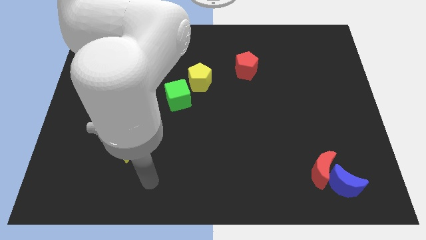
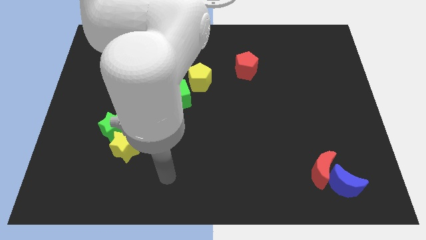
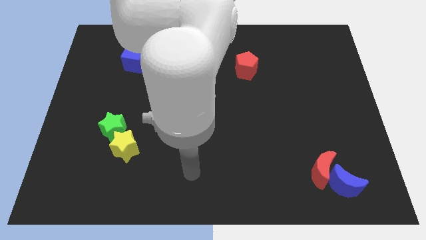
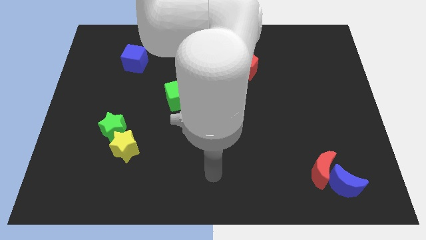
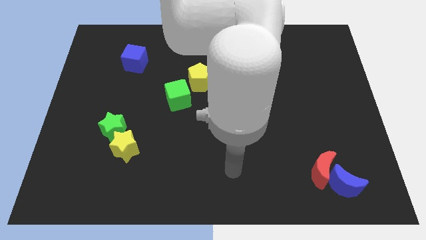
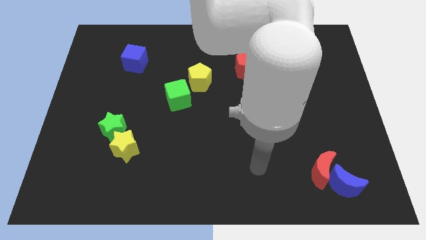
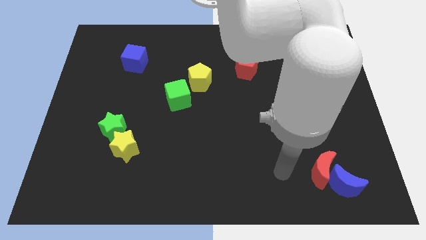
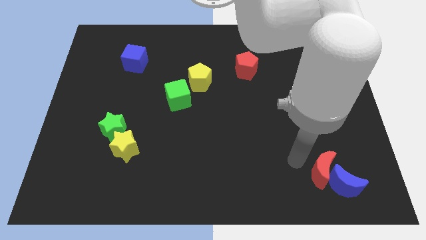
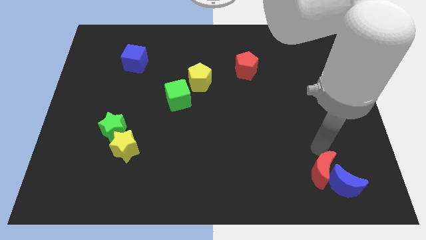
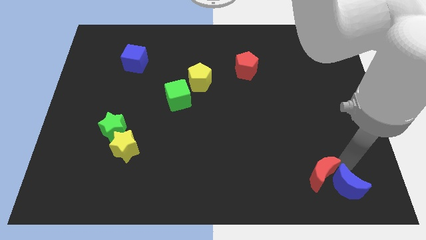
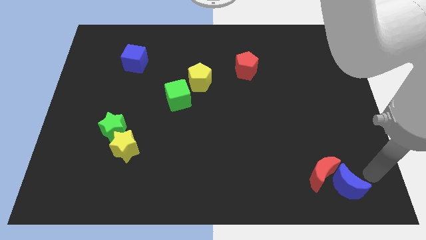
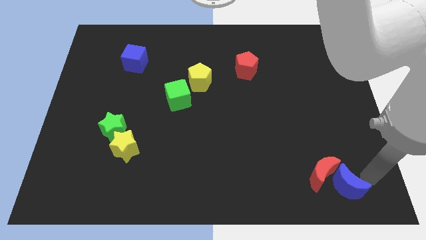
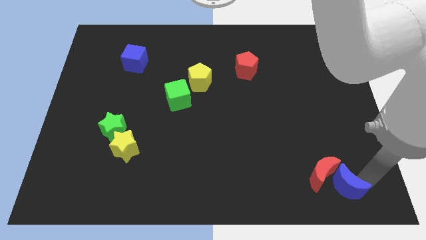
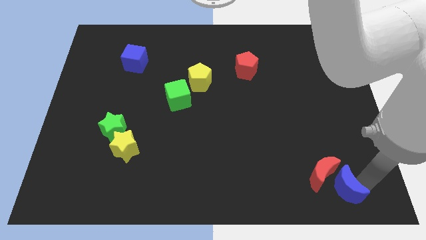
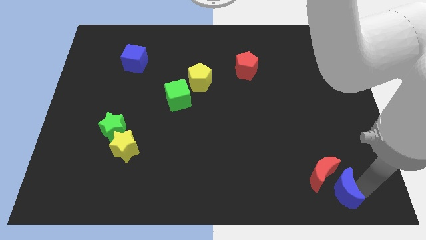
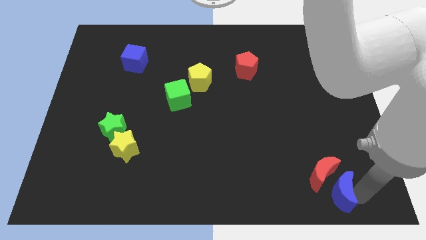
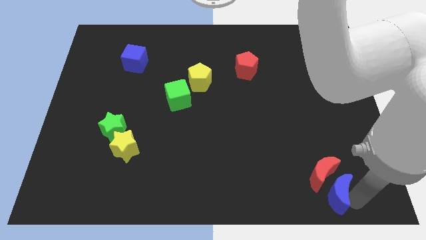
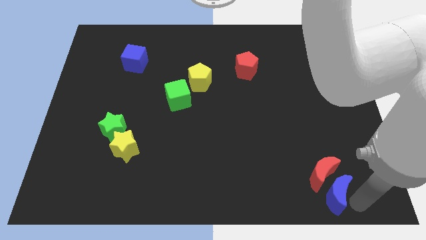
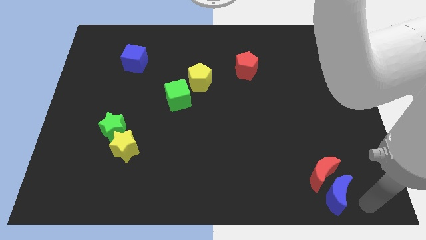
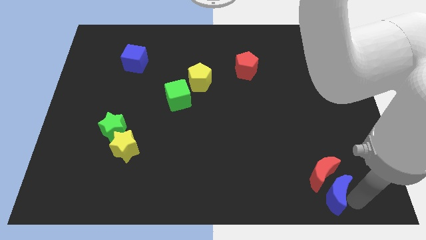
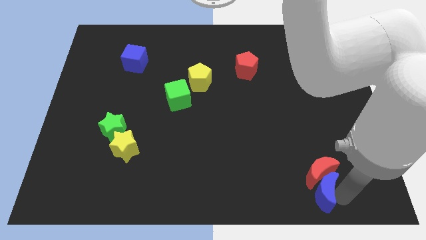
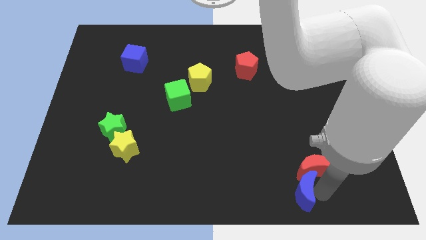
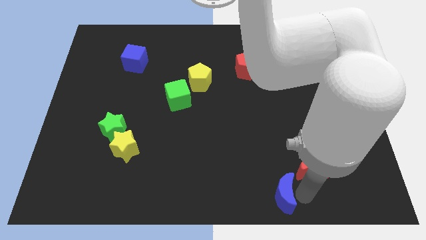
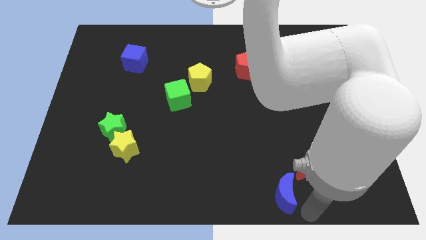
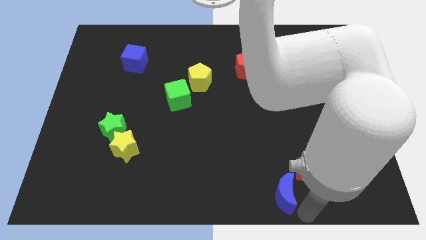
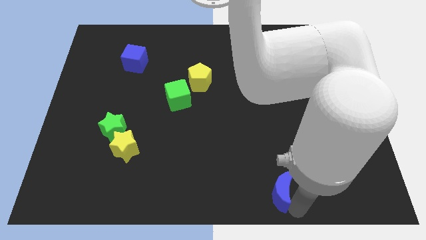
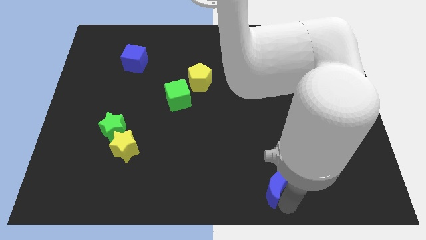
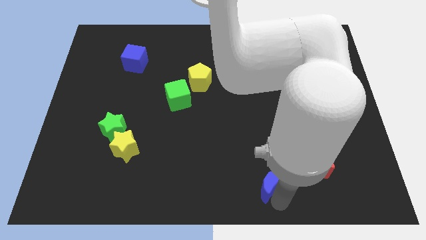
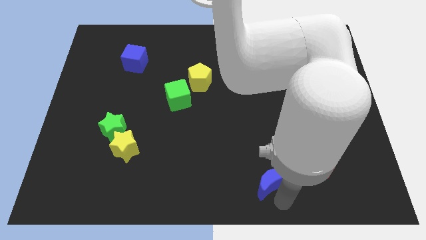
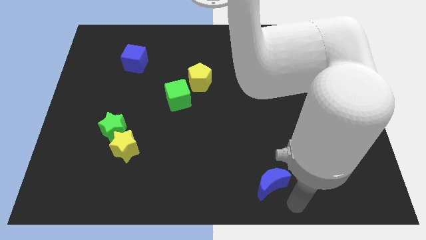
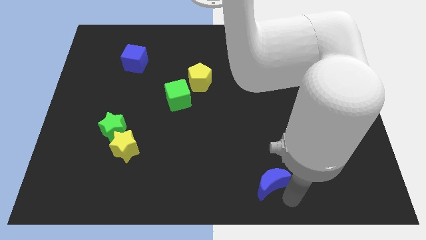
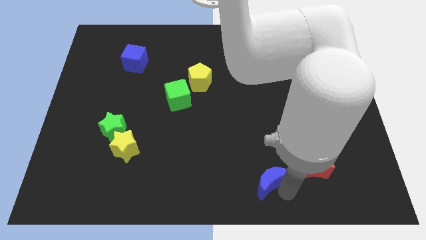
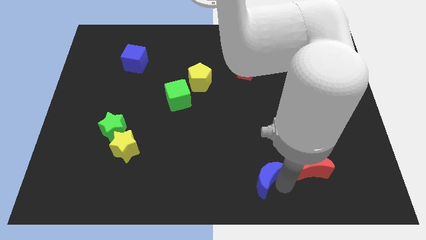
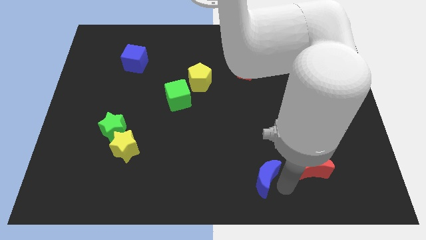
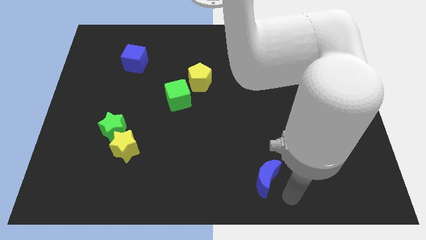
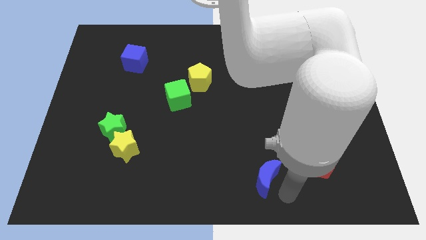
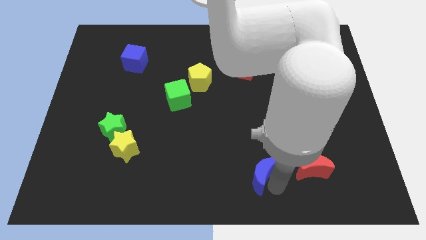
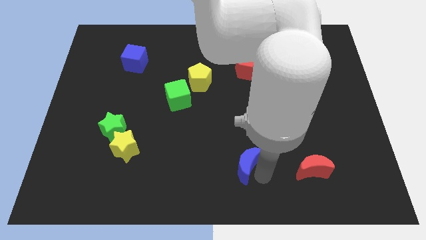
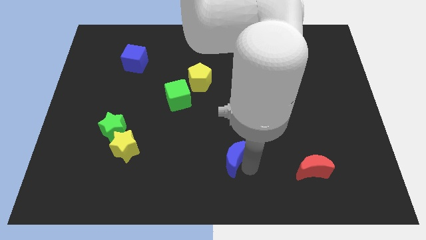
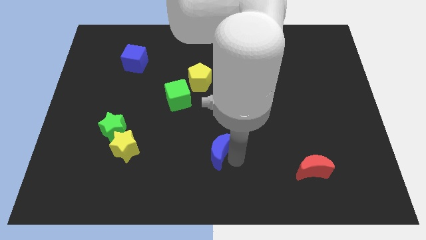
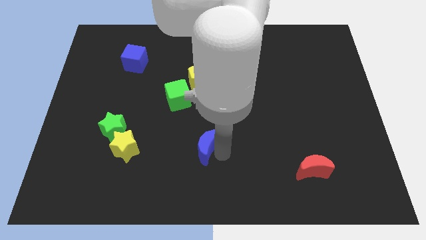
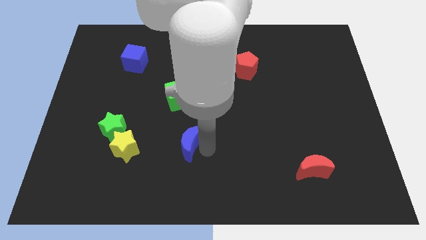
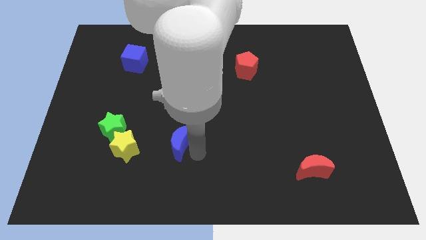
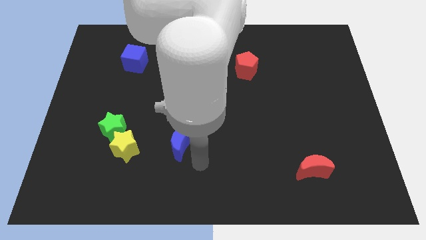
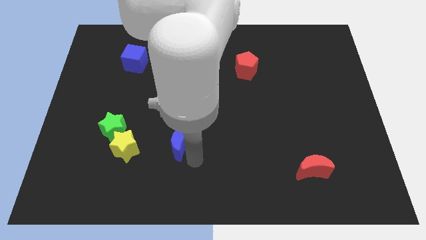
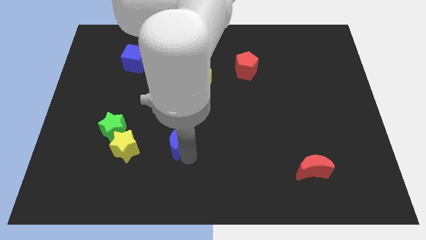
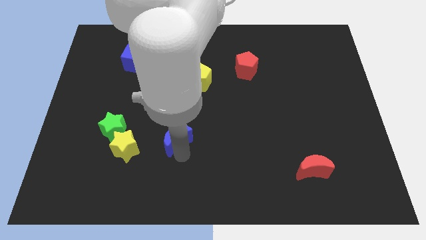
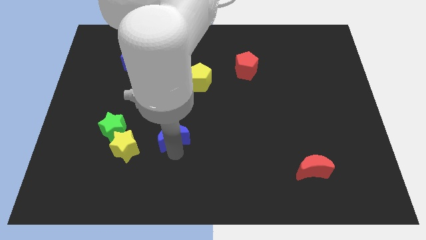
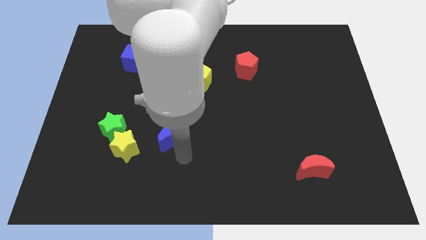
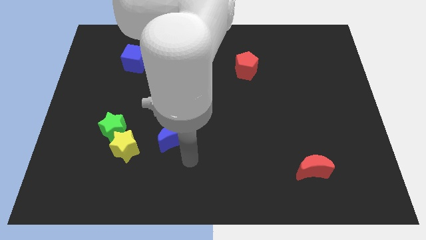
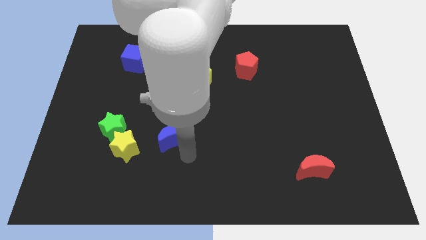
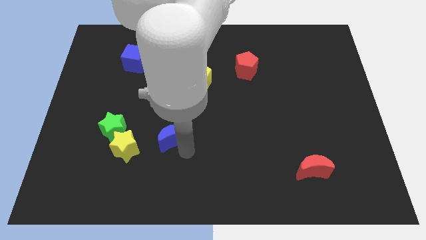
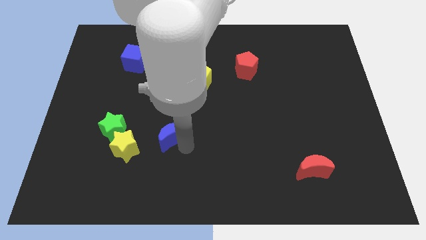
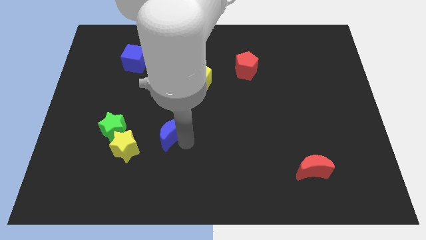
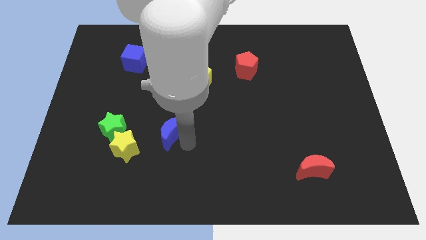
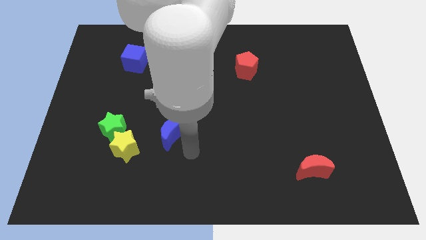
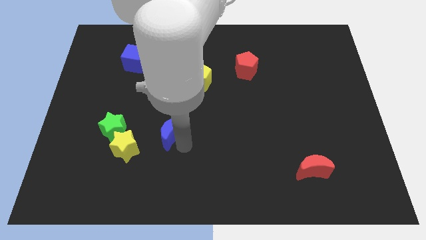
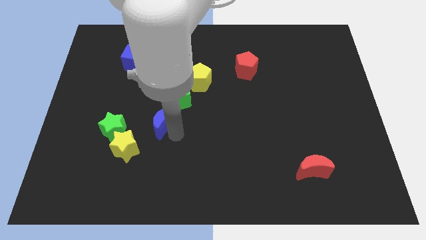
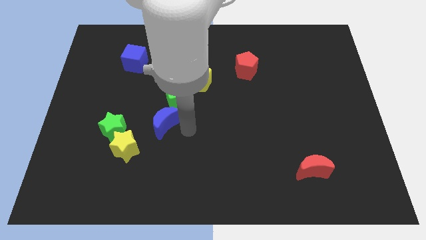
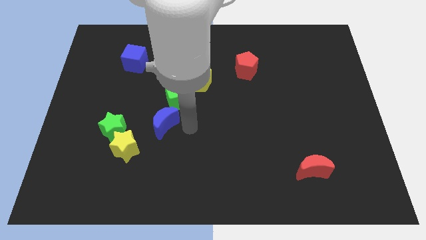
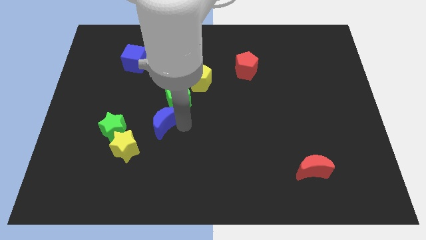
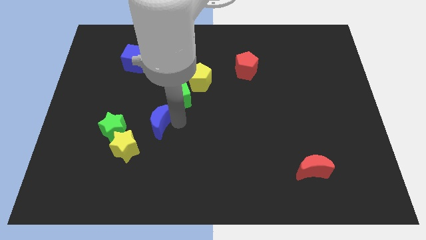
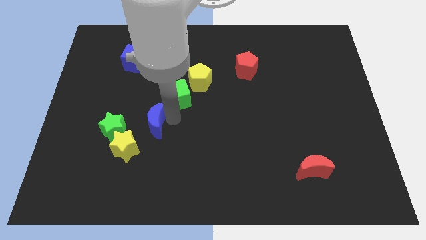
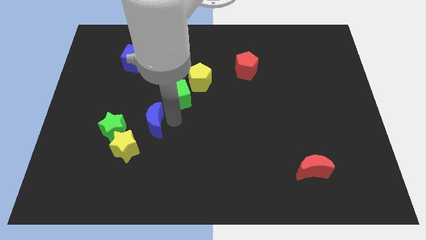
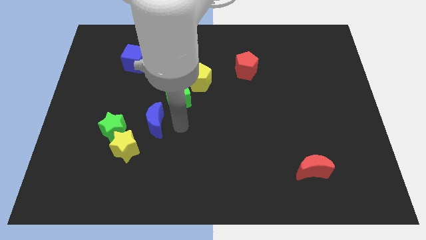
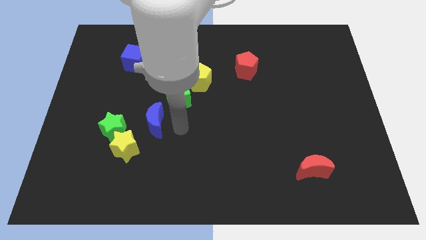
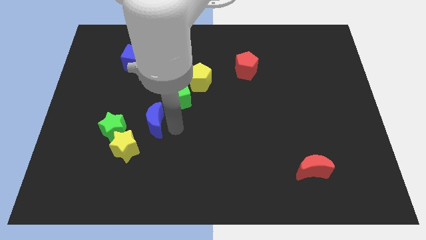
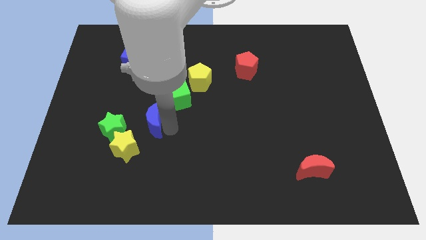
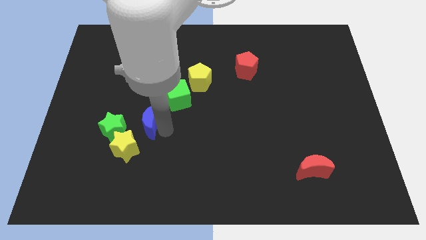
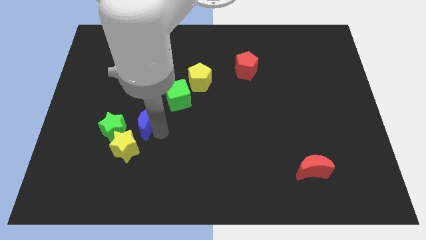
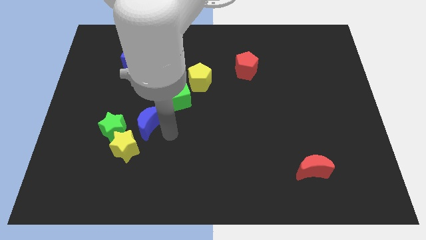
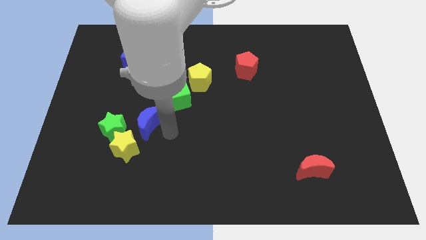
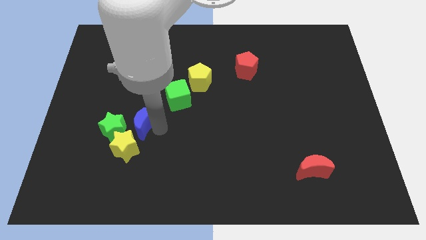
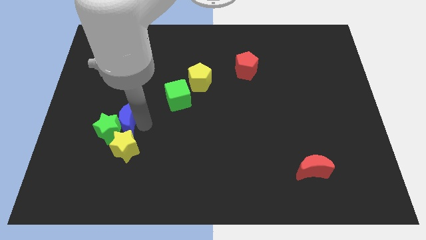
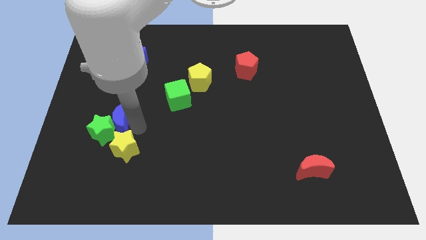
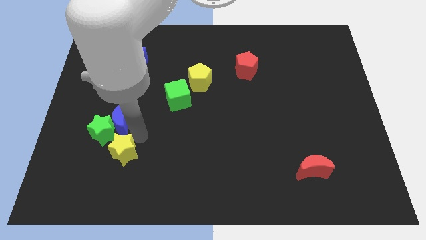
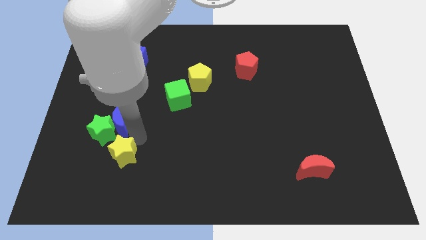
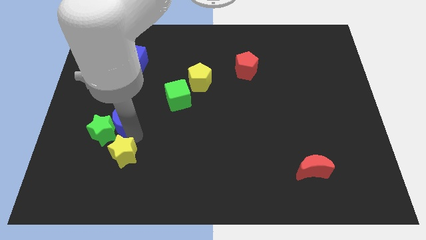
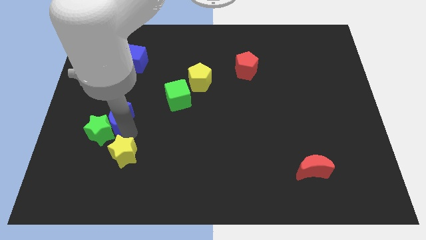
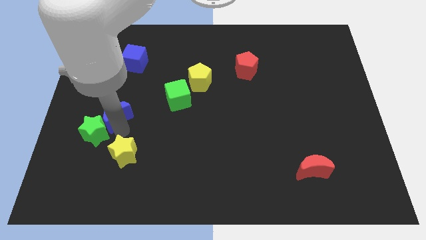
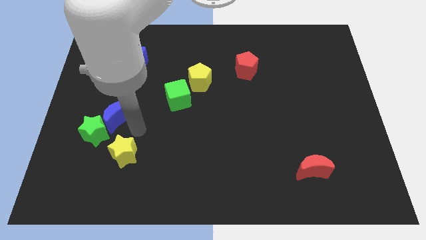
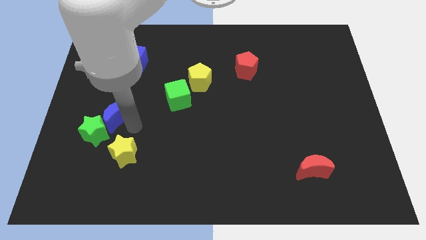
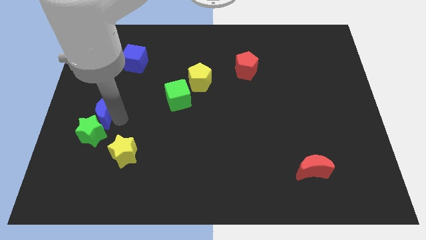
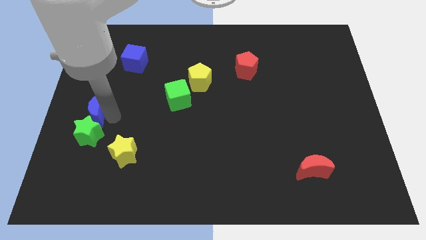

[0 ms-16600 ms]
slide the blue moon to the center left
